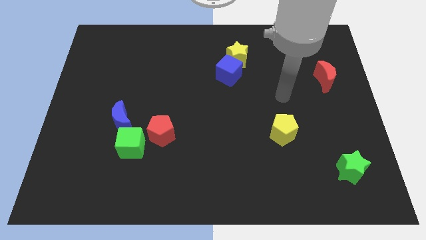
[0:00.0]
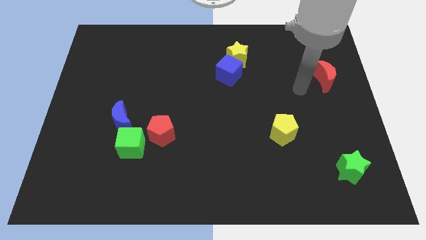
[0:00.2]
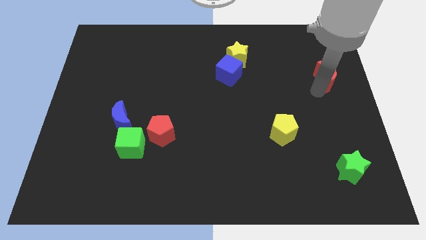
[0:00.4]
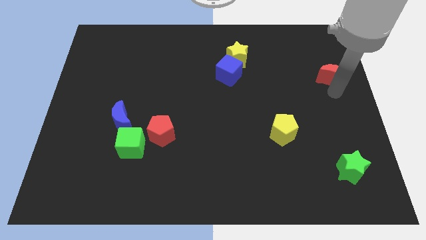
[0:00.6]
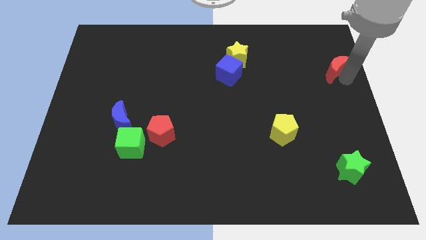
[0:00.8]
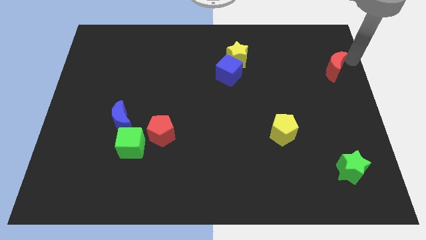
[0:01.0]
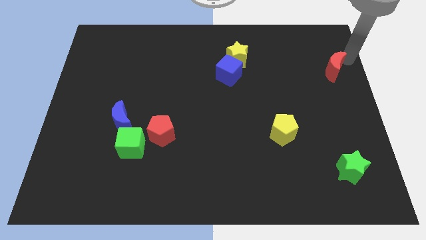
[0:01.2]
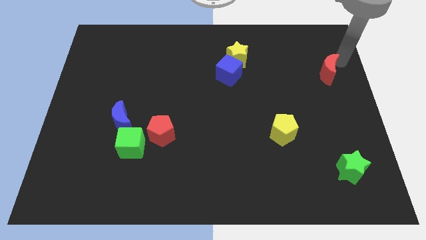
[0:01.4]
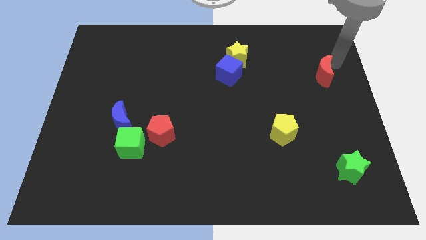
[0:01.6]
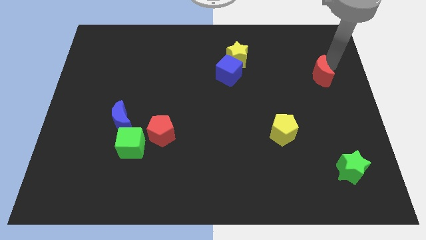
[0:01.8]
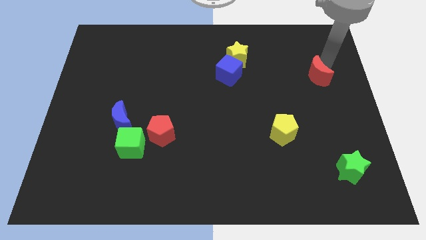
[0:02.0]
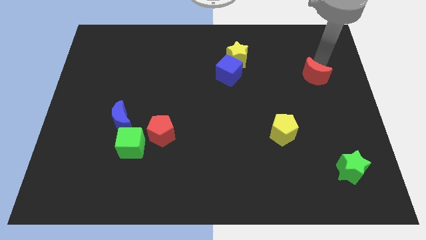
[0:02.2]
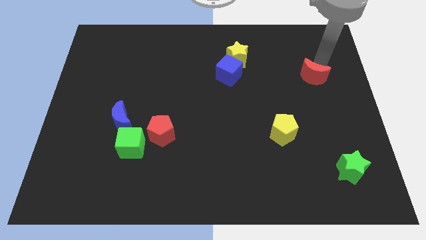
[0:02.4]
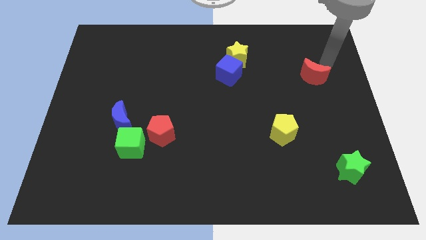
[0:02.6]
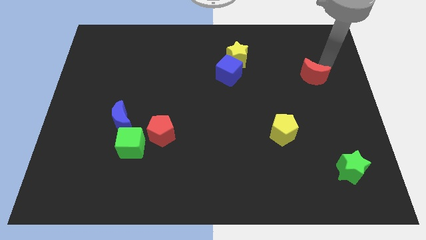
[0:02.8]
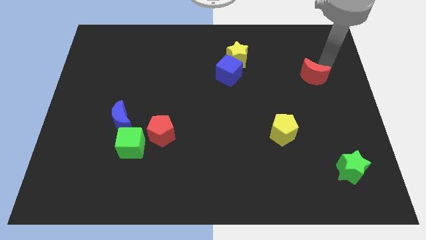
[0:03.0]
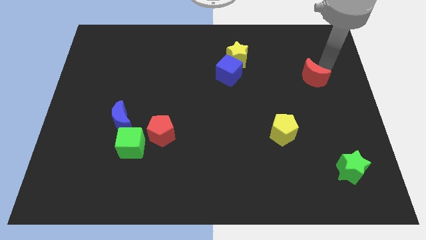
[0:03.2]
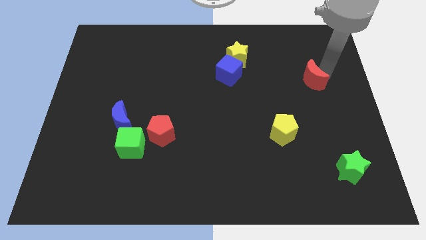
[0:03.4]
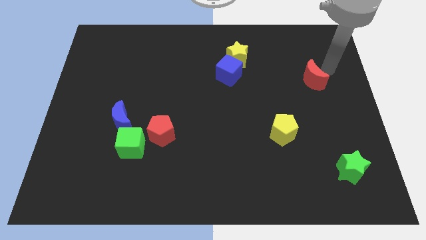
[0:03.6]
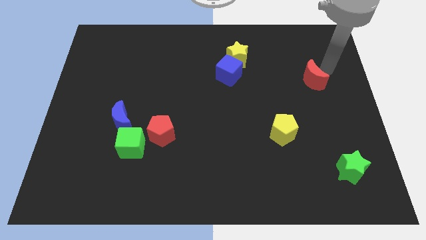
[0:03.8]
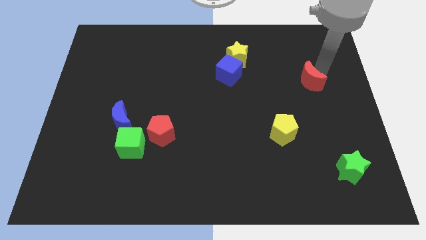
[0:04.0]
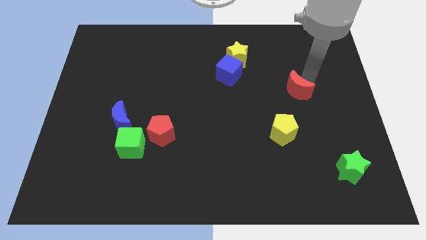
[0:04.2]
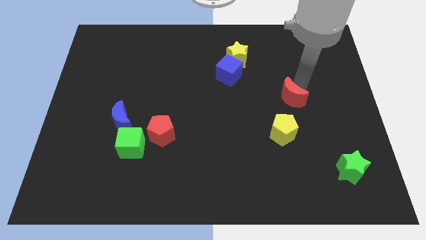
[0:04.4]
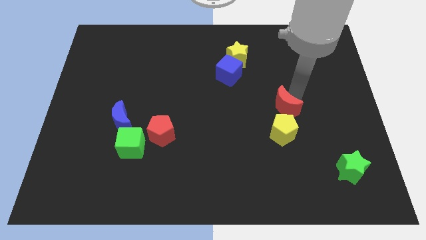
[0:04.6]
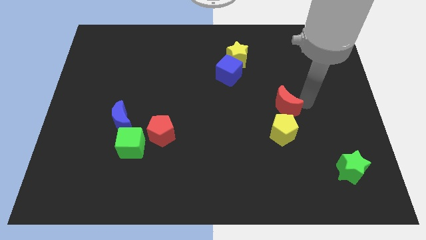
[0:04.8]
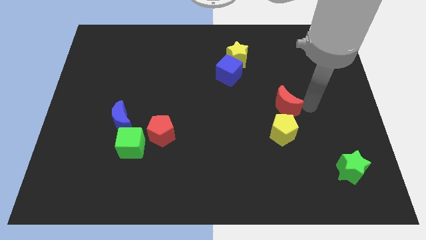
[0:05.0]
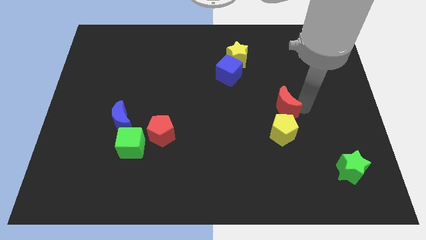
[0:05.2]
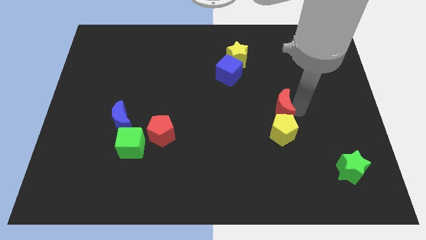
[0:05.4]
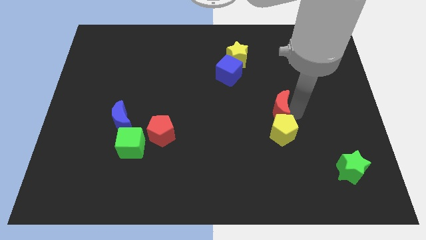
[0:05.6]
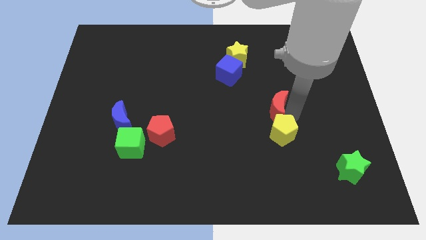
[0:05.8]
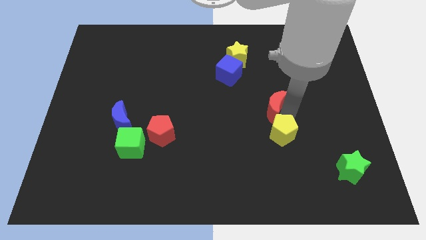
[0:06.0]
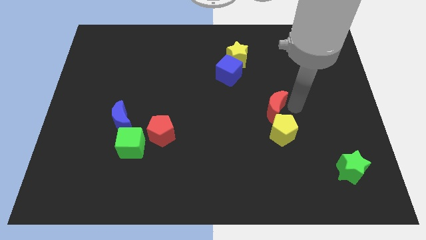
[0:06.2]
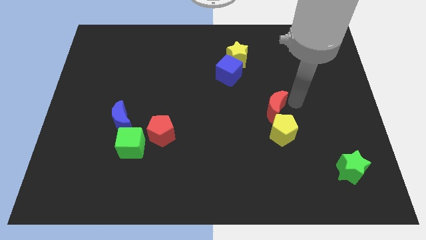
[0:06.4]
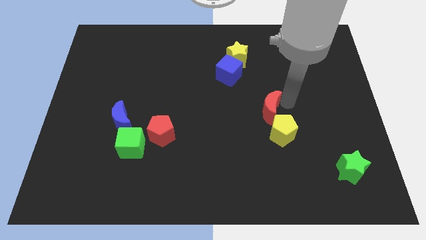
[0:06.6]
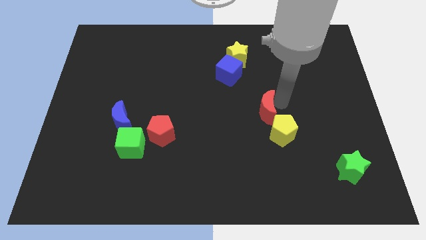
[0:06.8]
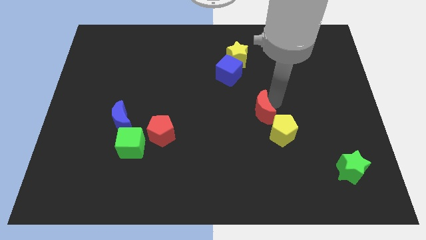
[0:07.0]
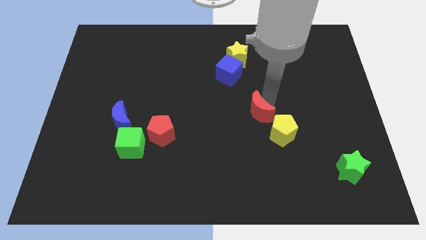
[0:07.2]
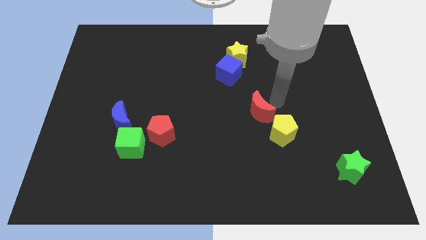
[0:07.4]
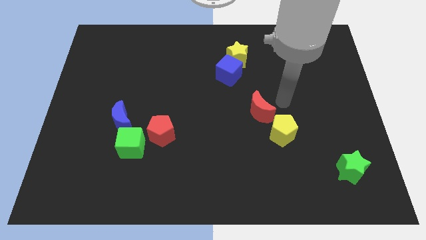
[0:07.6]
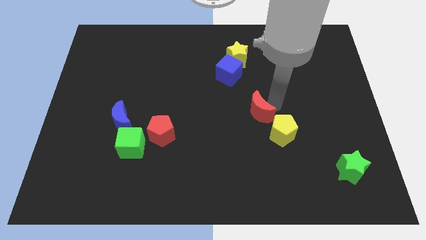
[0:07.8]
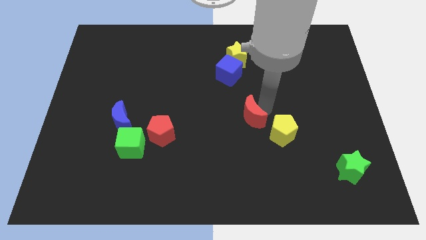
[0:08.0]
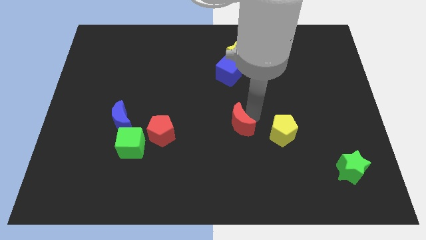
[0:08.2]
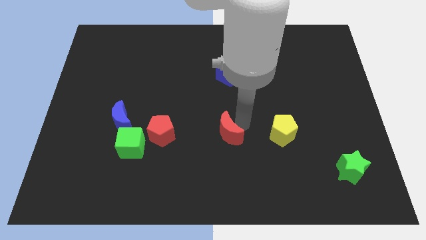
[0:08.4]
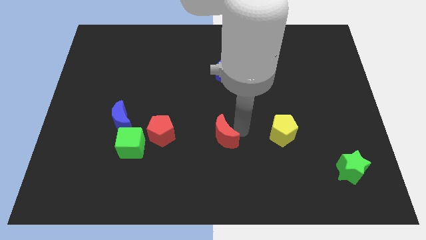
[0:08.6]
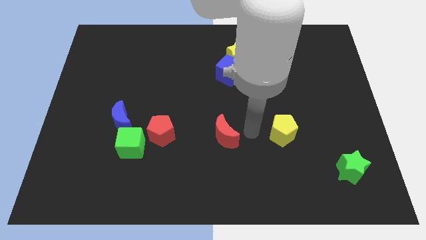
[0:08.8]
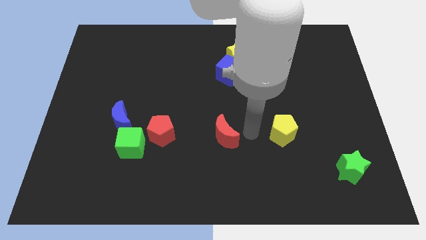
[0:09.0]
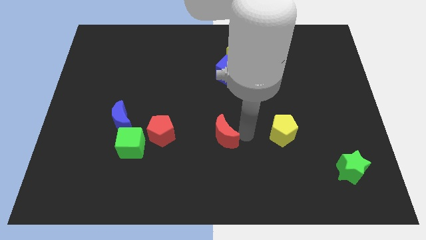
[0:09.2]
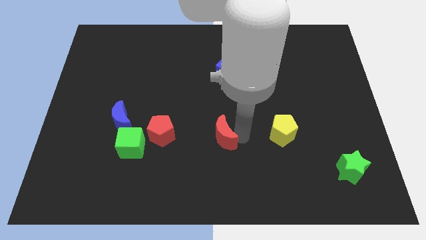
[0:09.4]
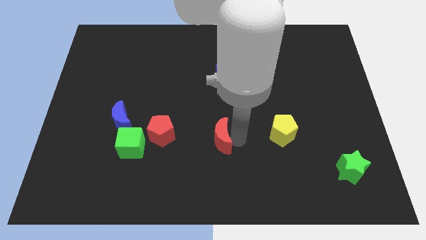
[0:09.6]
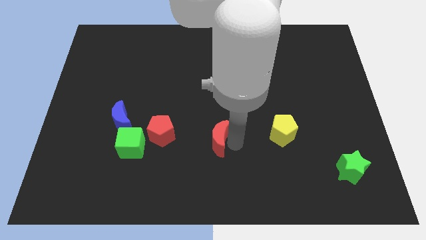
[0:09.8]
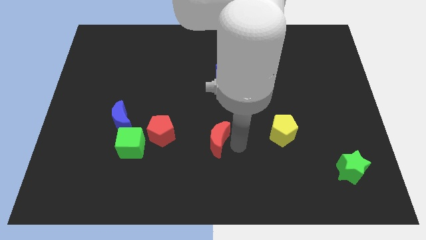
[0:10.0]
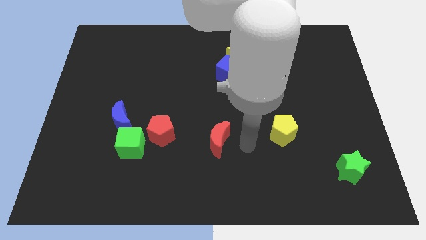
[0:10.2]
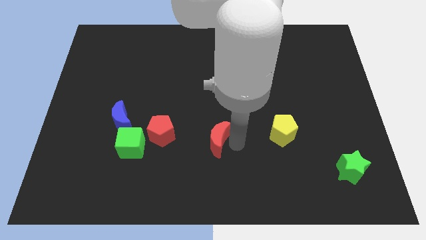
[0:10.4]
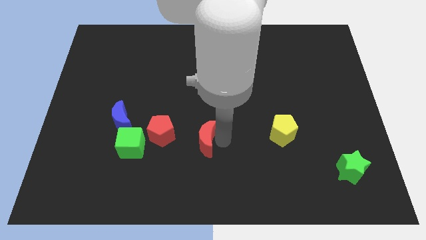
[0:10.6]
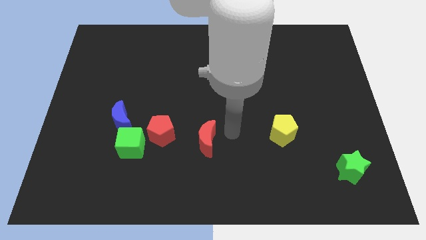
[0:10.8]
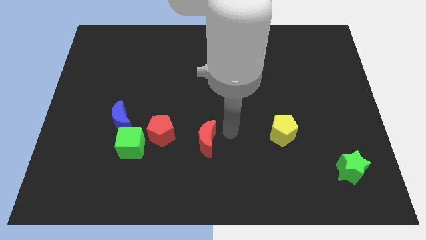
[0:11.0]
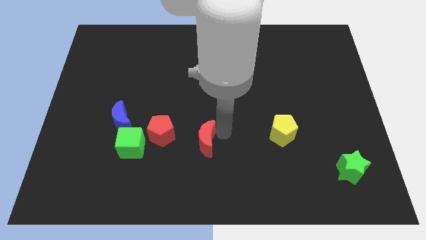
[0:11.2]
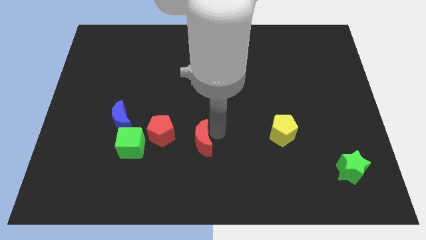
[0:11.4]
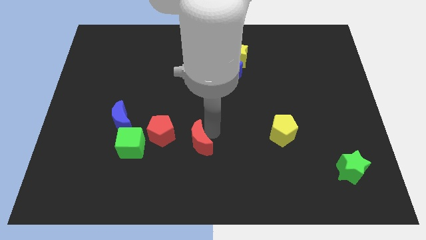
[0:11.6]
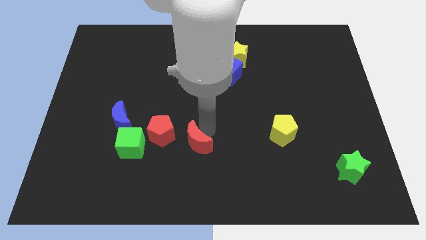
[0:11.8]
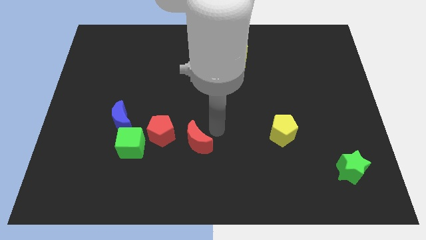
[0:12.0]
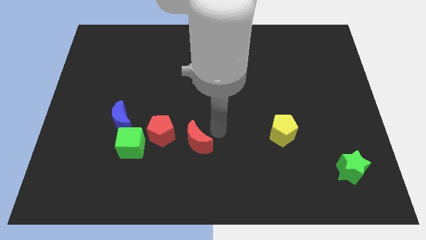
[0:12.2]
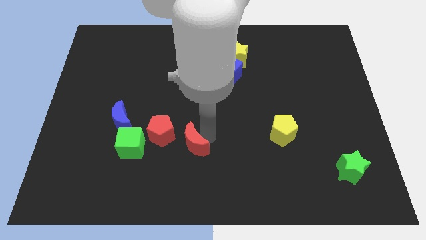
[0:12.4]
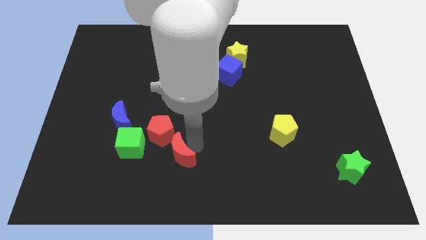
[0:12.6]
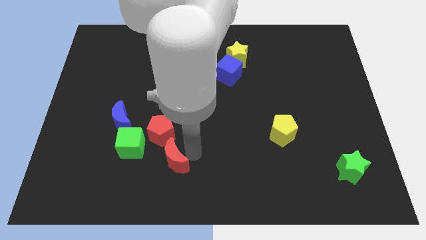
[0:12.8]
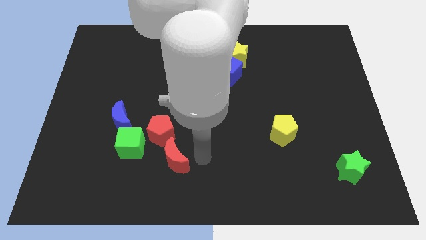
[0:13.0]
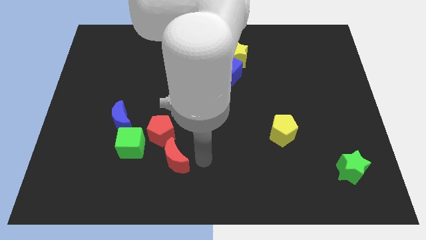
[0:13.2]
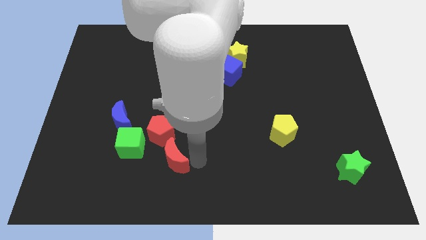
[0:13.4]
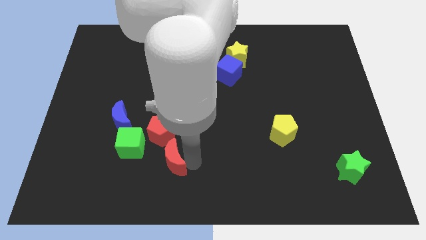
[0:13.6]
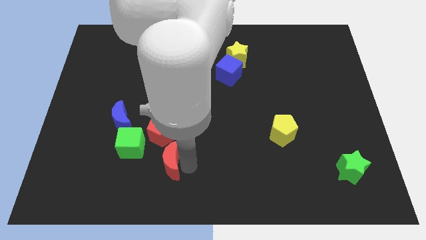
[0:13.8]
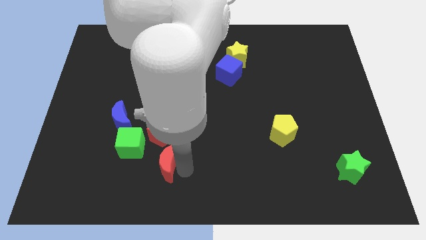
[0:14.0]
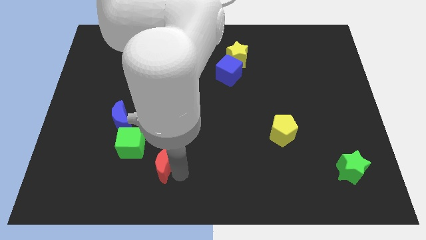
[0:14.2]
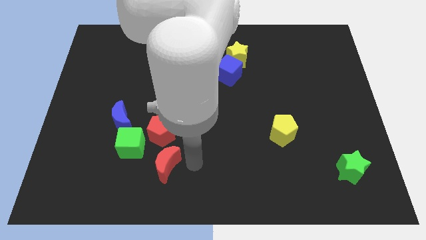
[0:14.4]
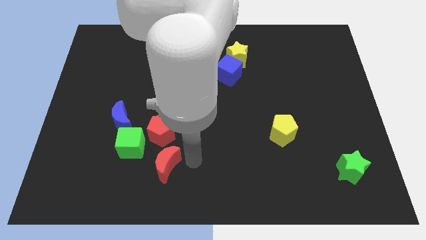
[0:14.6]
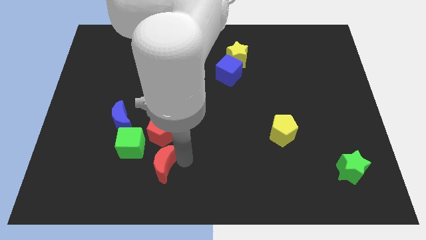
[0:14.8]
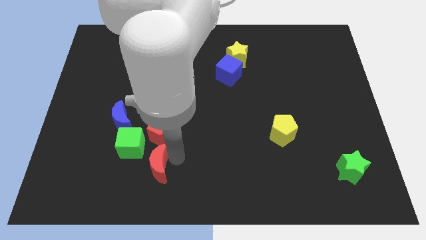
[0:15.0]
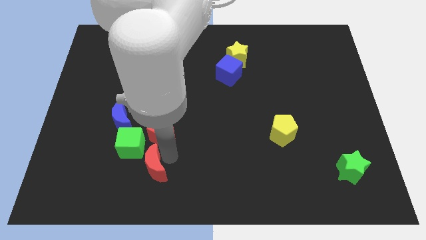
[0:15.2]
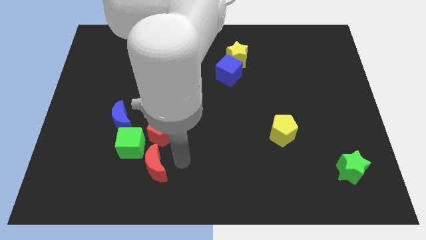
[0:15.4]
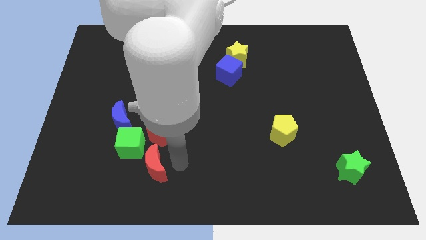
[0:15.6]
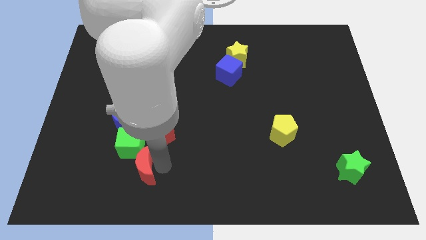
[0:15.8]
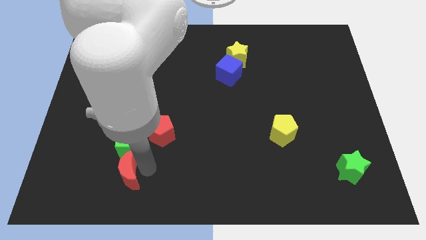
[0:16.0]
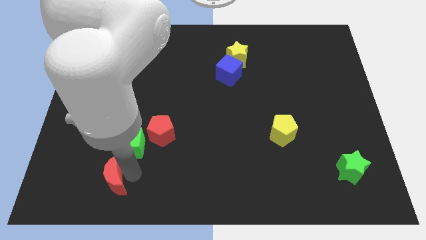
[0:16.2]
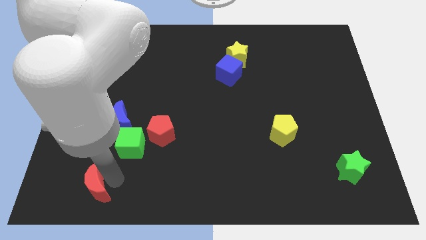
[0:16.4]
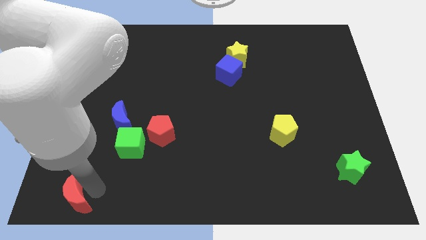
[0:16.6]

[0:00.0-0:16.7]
push the red moon to the lower left corner
